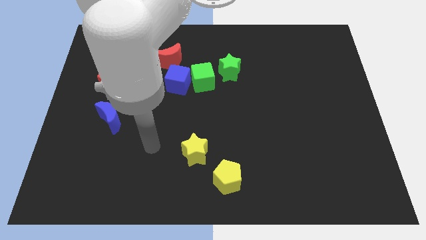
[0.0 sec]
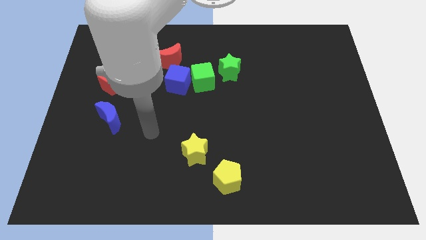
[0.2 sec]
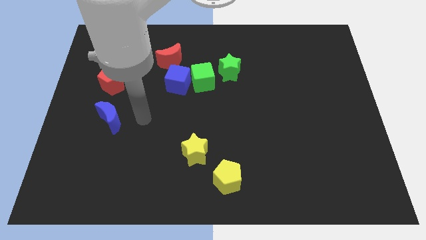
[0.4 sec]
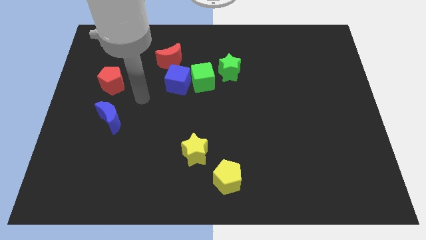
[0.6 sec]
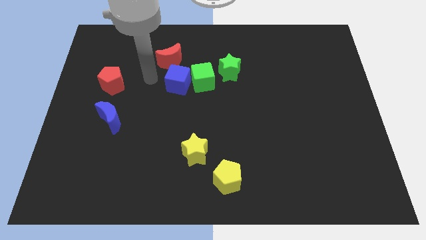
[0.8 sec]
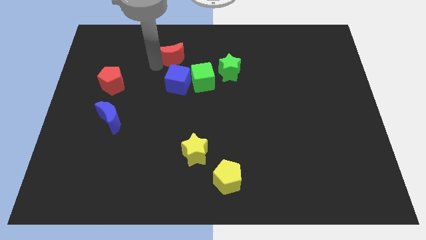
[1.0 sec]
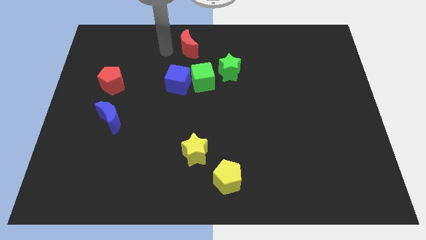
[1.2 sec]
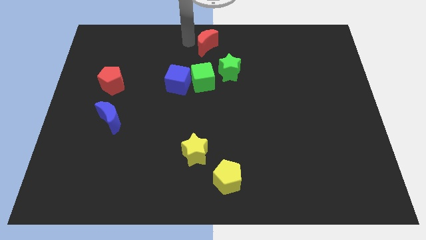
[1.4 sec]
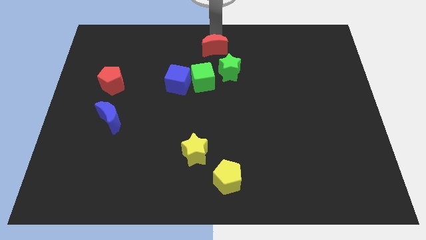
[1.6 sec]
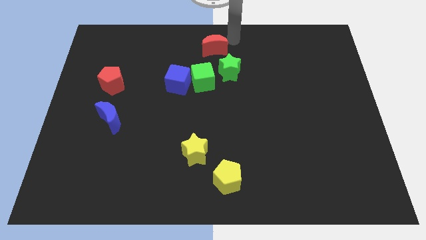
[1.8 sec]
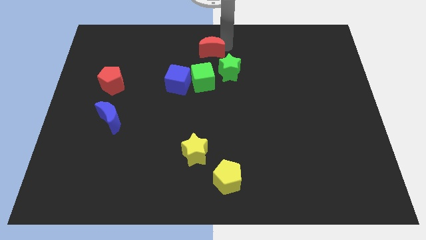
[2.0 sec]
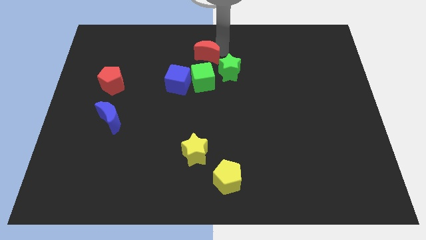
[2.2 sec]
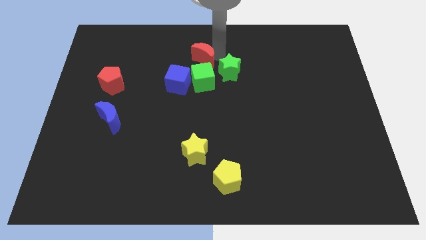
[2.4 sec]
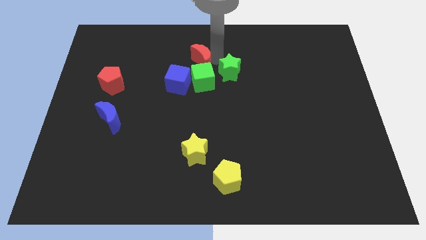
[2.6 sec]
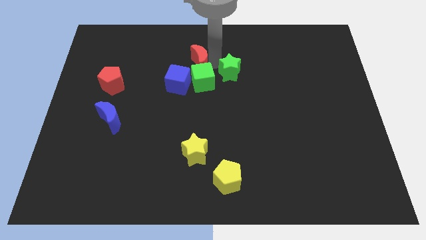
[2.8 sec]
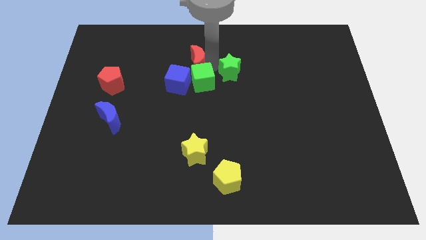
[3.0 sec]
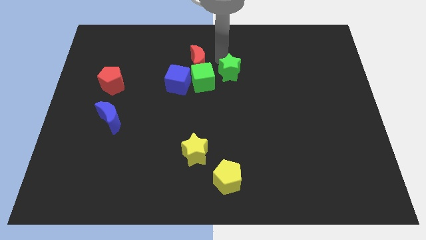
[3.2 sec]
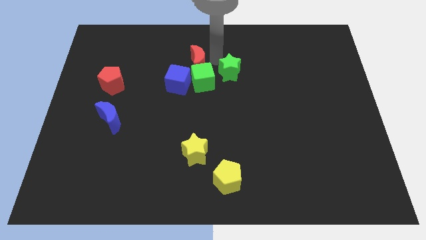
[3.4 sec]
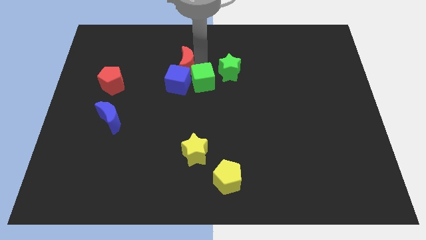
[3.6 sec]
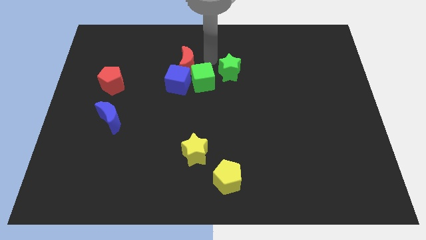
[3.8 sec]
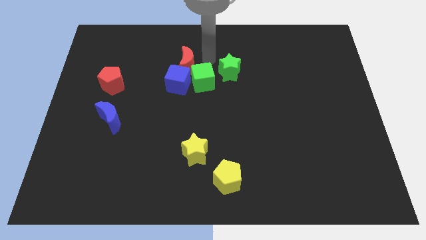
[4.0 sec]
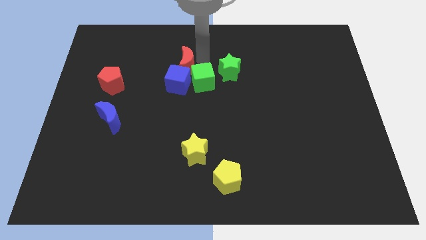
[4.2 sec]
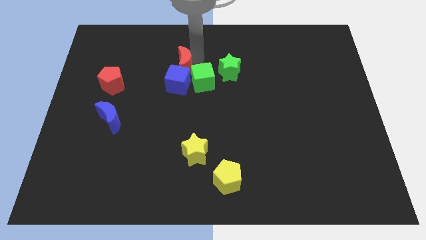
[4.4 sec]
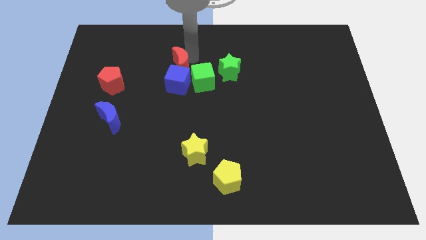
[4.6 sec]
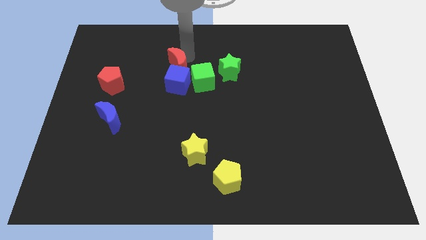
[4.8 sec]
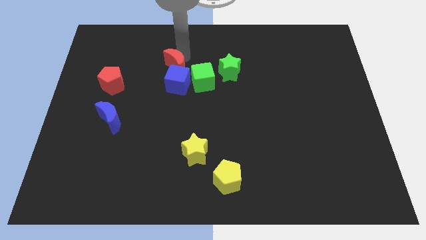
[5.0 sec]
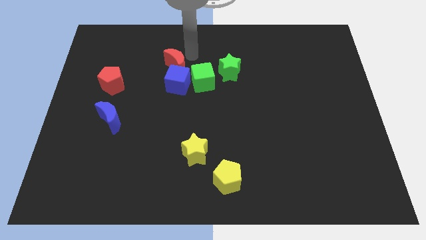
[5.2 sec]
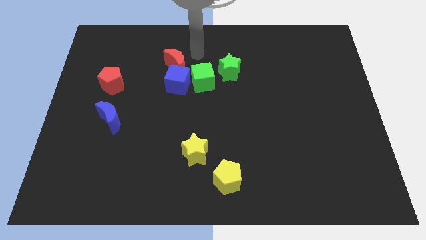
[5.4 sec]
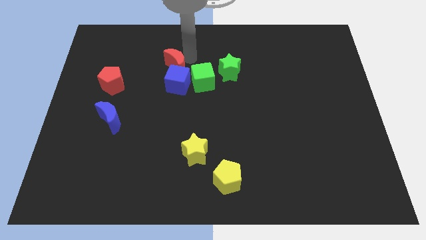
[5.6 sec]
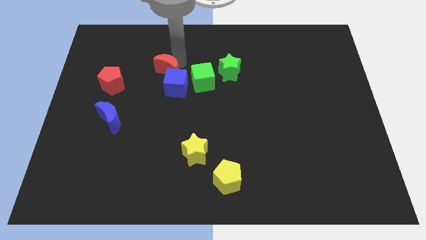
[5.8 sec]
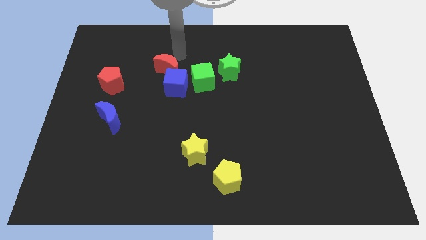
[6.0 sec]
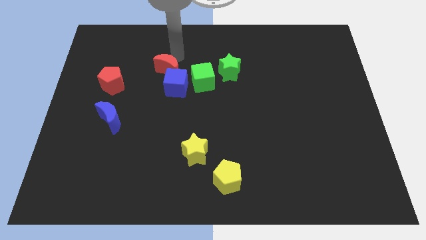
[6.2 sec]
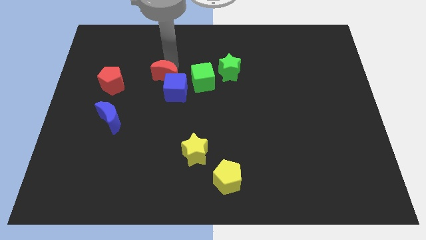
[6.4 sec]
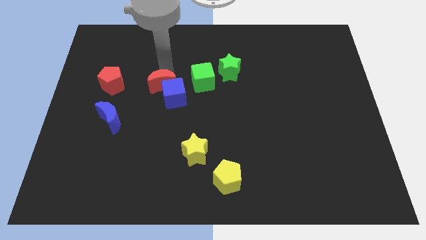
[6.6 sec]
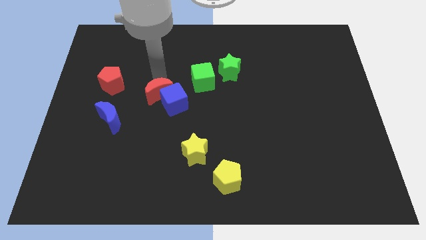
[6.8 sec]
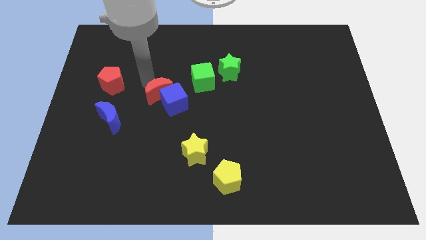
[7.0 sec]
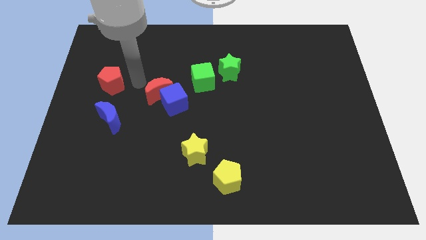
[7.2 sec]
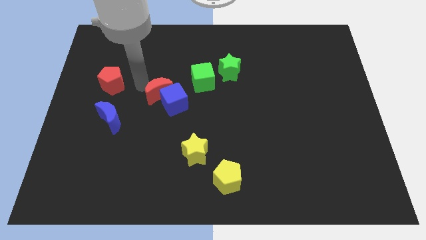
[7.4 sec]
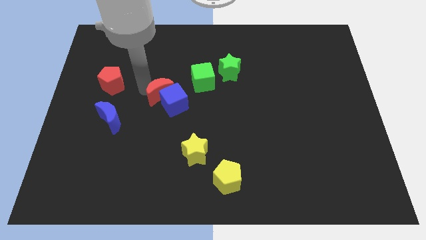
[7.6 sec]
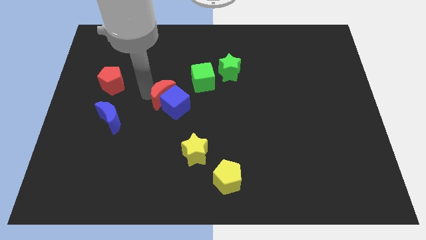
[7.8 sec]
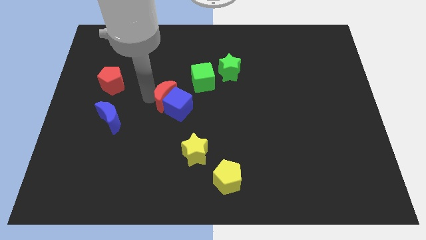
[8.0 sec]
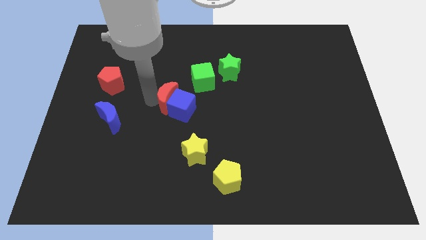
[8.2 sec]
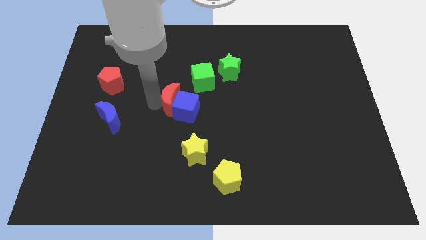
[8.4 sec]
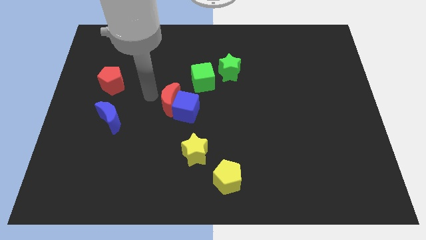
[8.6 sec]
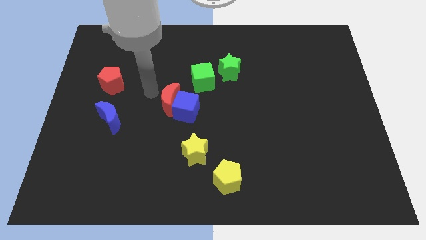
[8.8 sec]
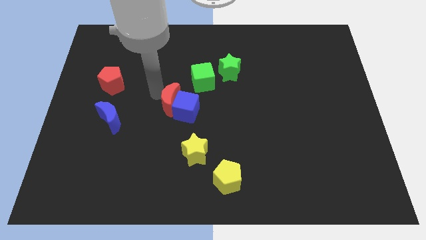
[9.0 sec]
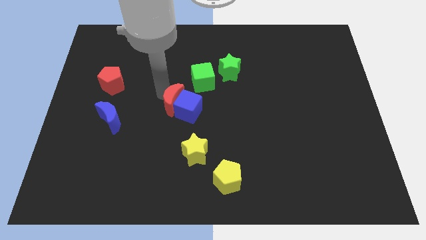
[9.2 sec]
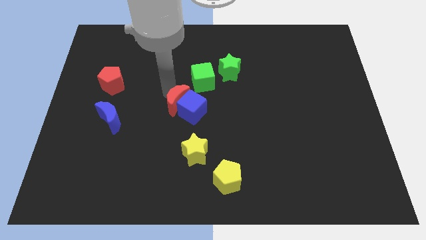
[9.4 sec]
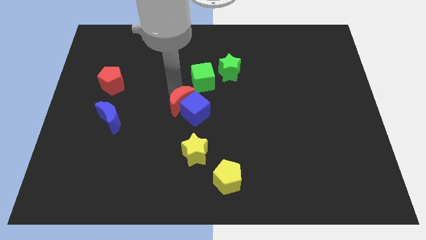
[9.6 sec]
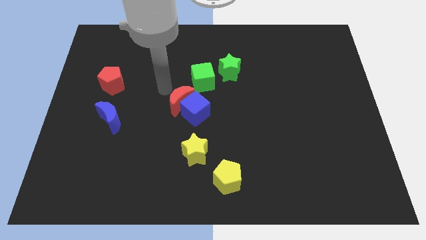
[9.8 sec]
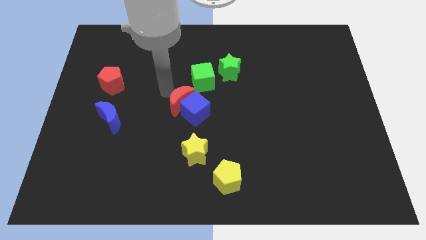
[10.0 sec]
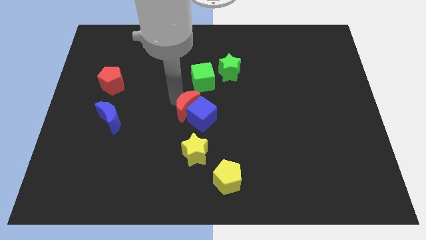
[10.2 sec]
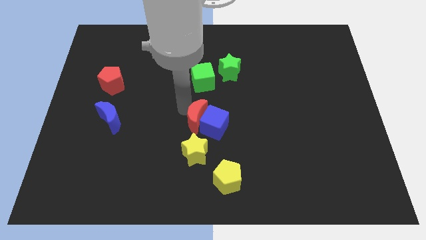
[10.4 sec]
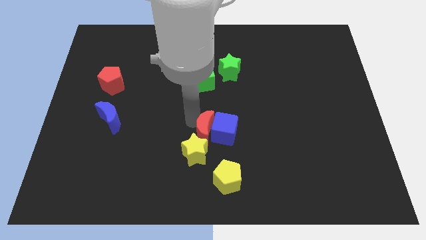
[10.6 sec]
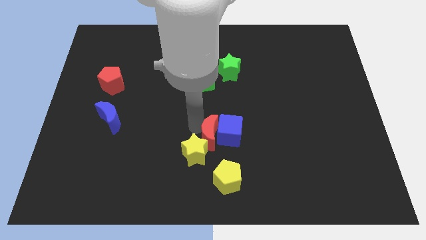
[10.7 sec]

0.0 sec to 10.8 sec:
slide the red moon downwards and right diagonally

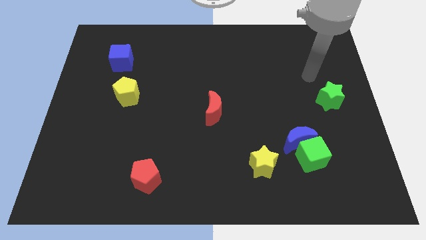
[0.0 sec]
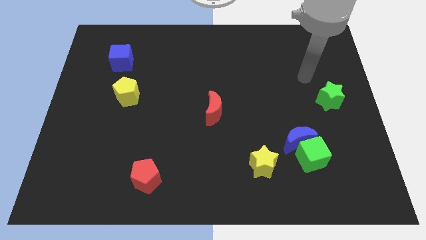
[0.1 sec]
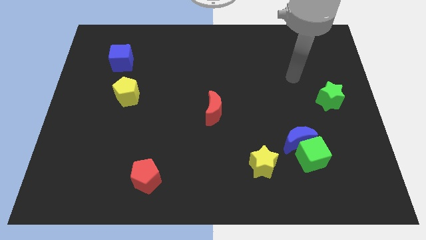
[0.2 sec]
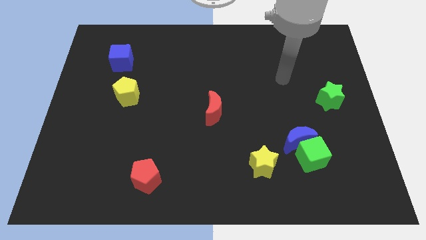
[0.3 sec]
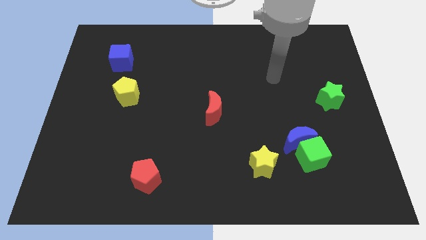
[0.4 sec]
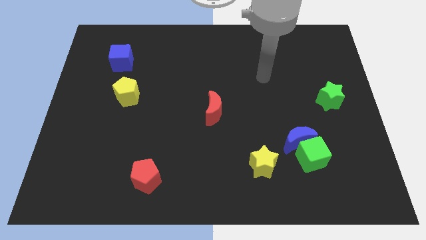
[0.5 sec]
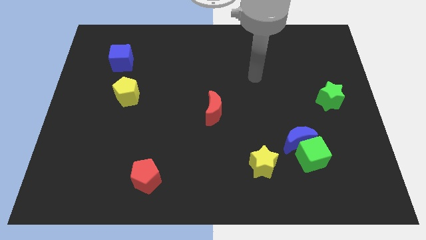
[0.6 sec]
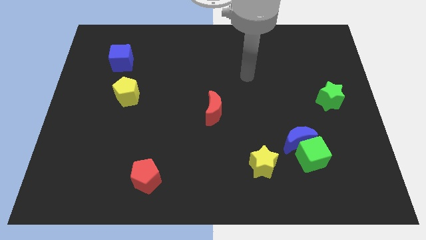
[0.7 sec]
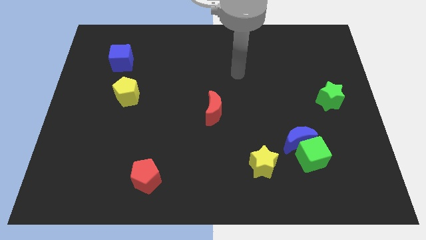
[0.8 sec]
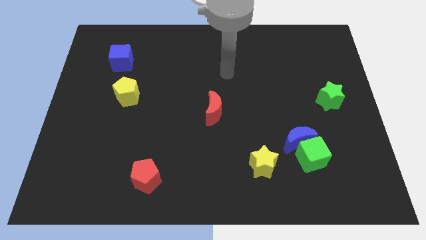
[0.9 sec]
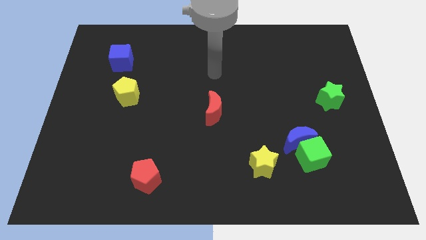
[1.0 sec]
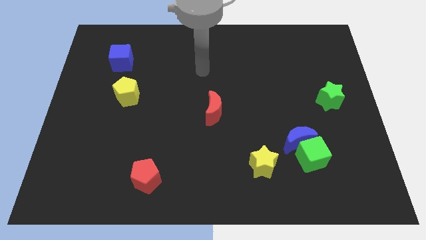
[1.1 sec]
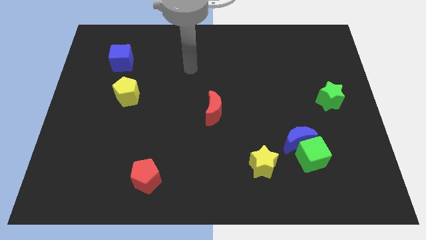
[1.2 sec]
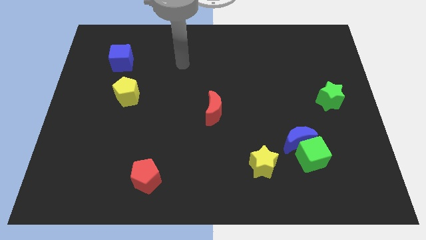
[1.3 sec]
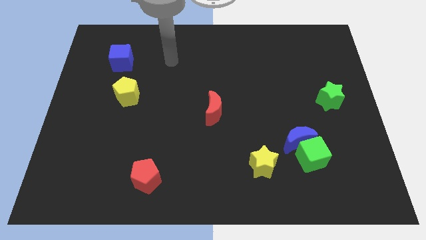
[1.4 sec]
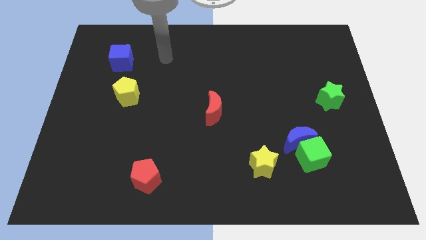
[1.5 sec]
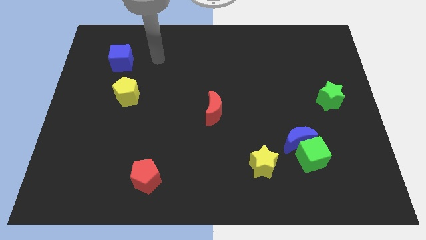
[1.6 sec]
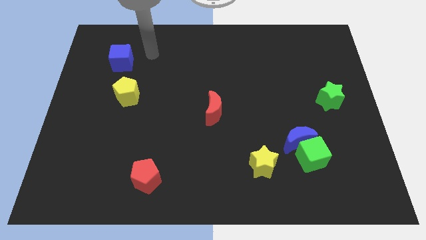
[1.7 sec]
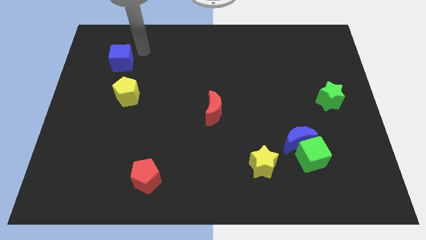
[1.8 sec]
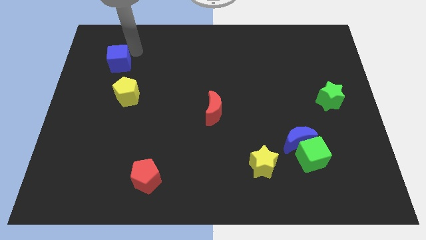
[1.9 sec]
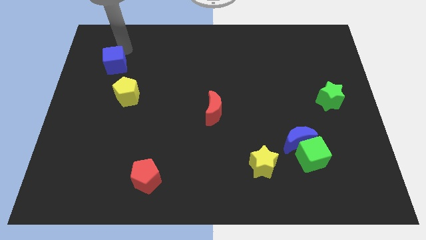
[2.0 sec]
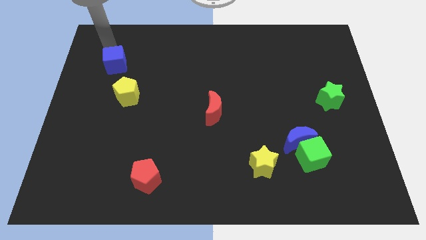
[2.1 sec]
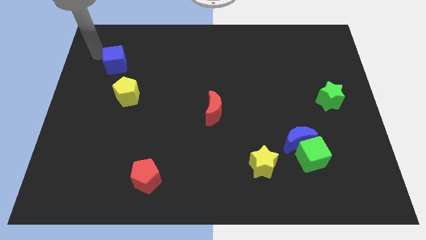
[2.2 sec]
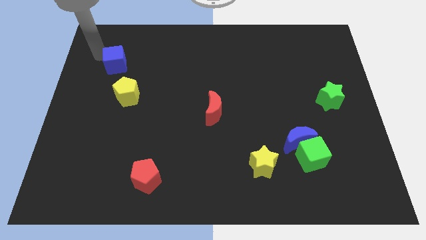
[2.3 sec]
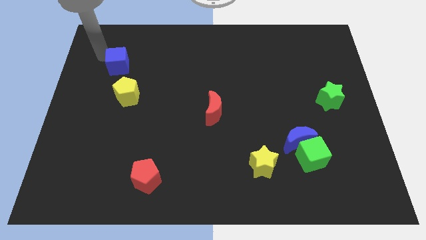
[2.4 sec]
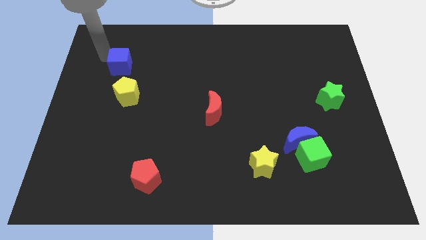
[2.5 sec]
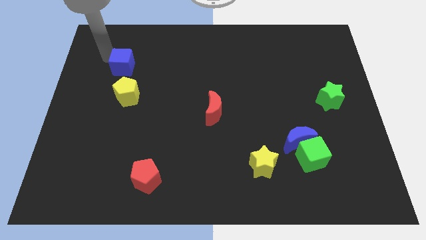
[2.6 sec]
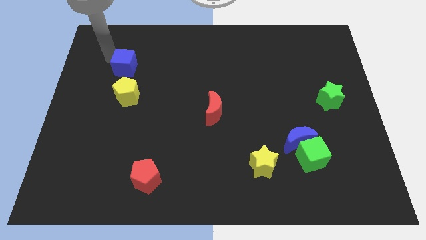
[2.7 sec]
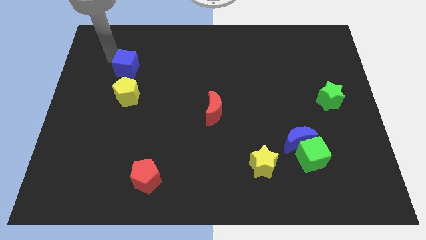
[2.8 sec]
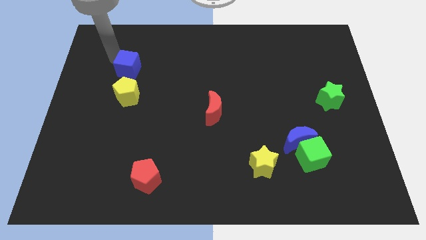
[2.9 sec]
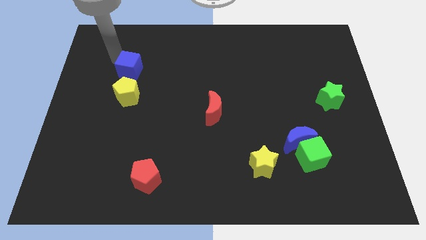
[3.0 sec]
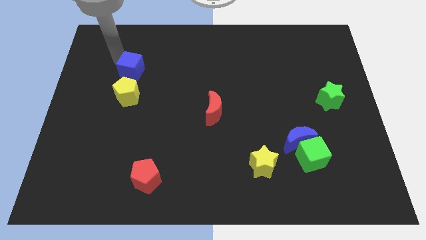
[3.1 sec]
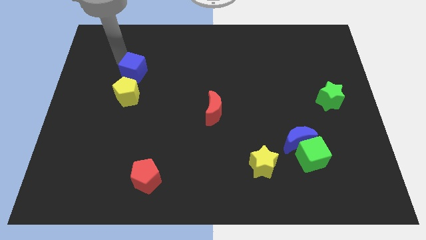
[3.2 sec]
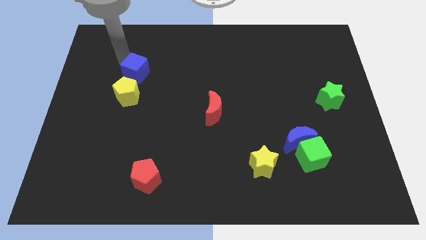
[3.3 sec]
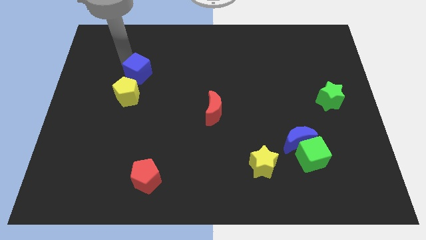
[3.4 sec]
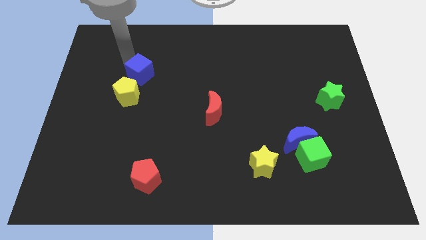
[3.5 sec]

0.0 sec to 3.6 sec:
slide the blue cube slightly downwards and then right
